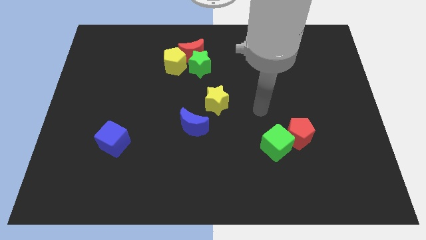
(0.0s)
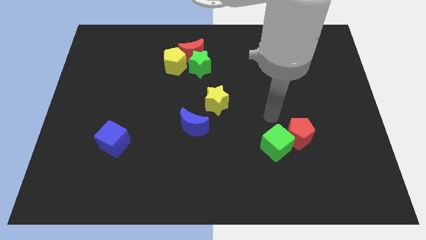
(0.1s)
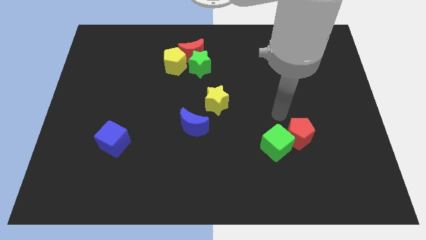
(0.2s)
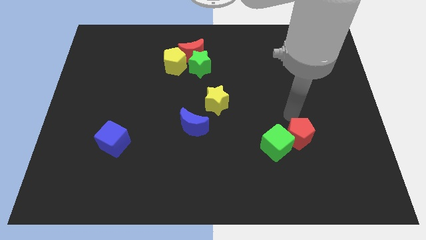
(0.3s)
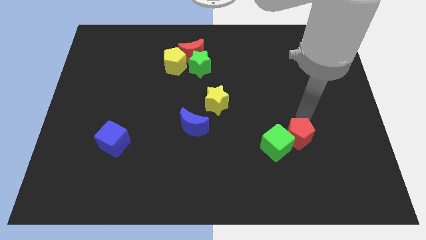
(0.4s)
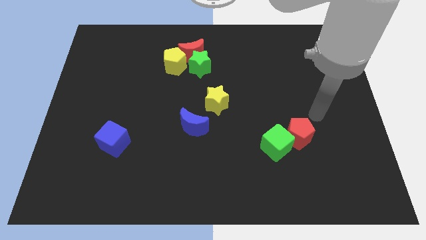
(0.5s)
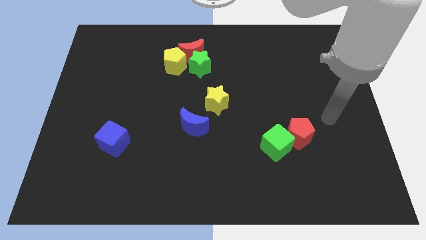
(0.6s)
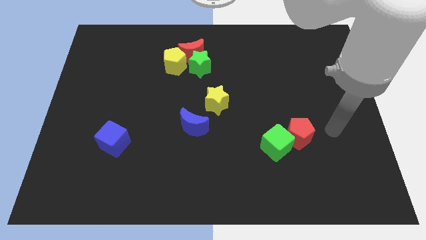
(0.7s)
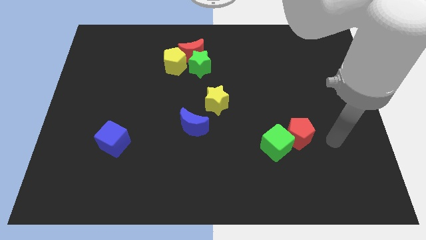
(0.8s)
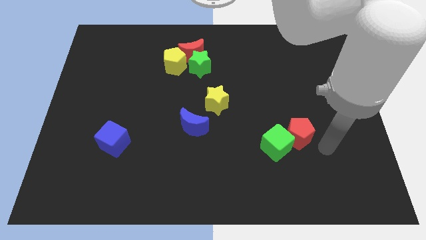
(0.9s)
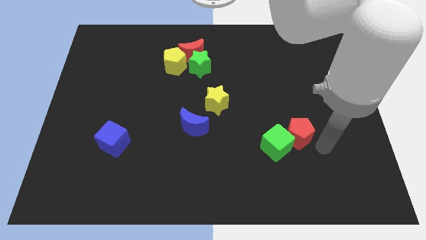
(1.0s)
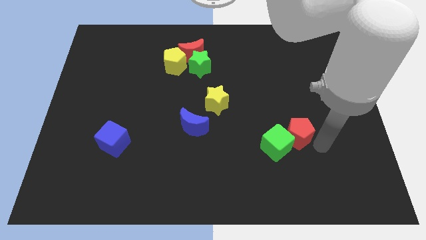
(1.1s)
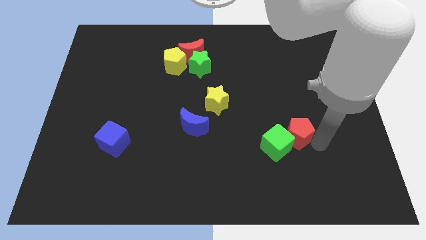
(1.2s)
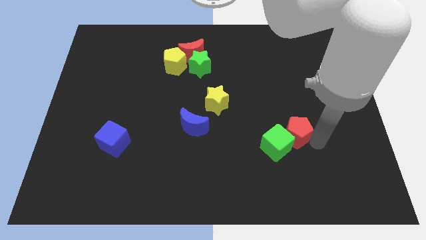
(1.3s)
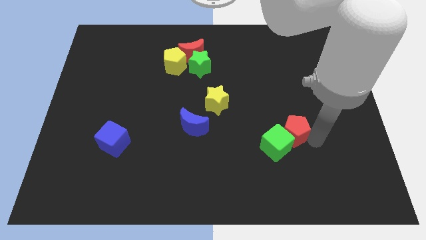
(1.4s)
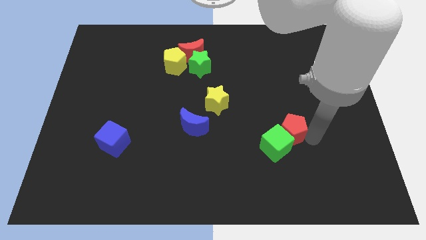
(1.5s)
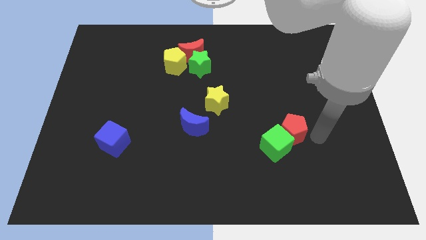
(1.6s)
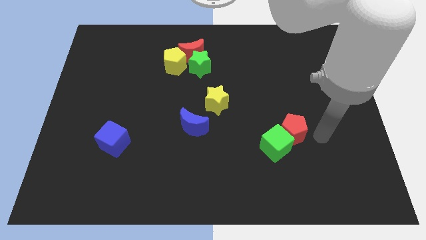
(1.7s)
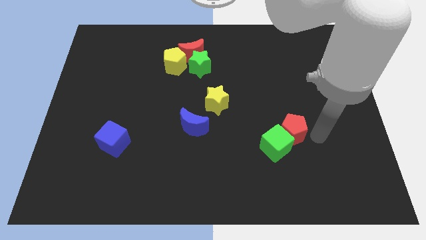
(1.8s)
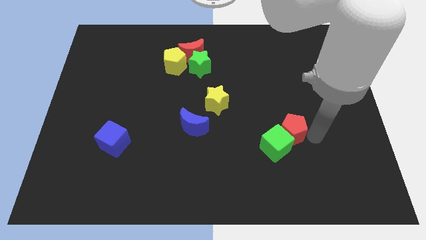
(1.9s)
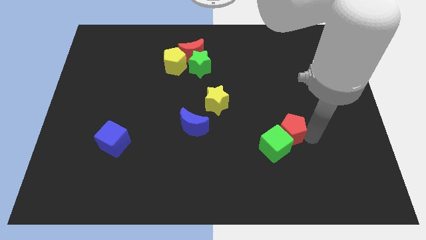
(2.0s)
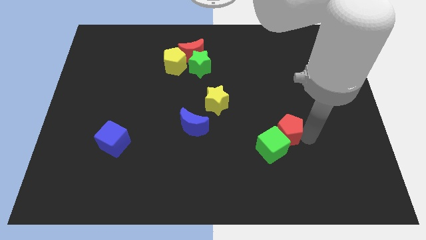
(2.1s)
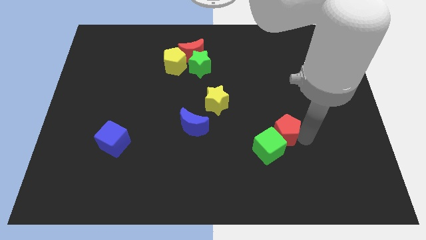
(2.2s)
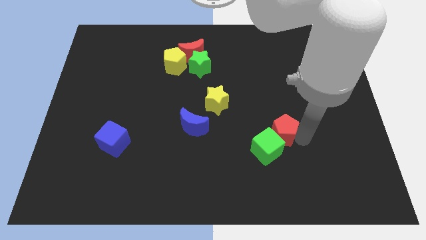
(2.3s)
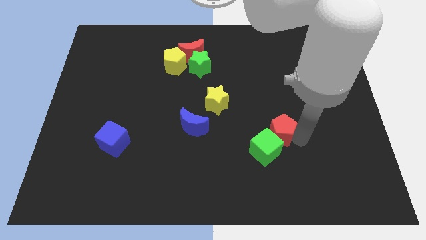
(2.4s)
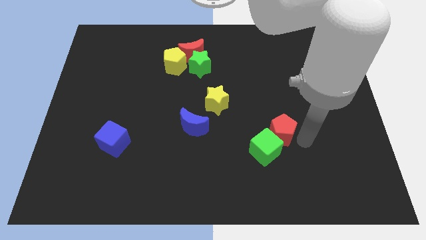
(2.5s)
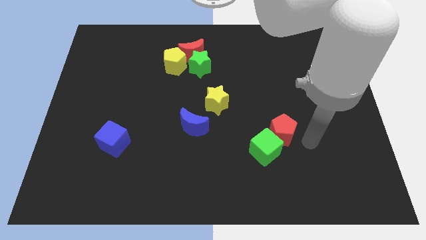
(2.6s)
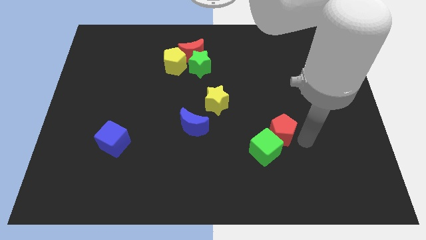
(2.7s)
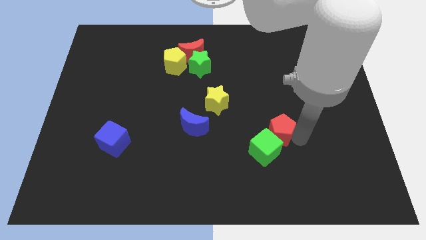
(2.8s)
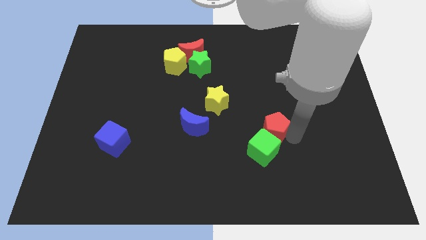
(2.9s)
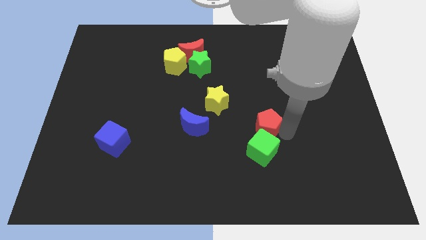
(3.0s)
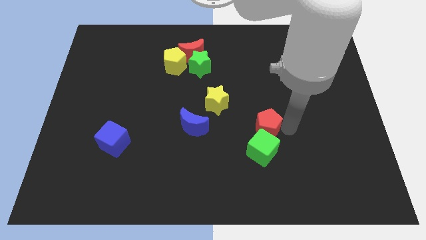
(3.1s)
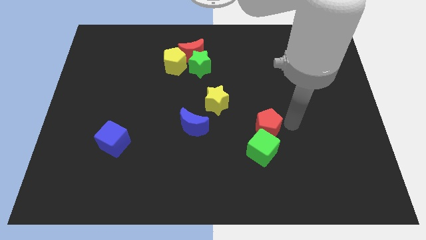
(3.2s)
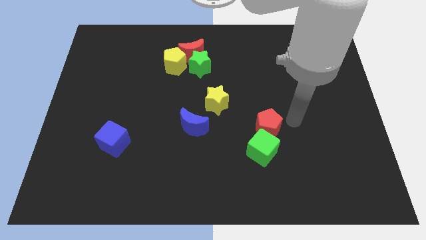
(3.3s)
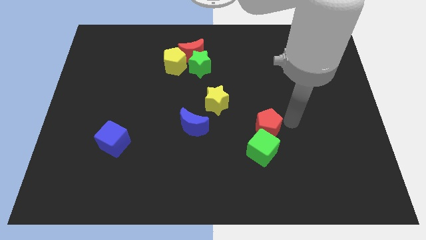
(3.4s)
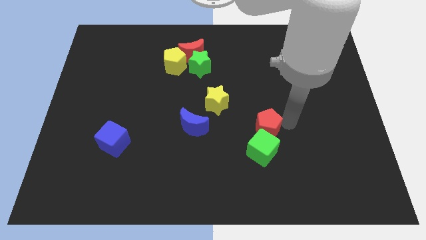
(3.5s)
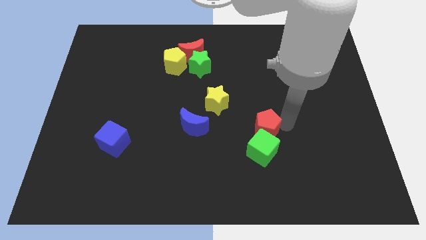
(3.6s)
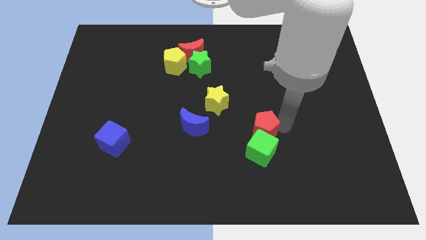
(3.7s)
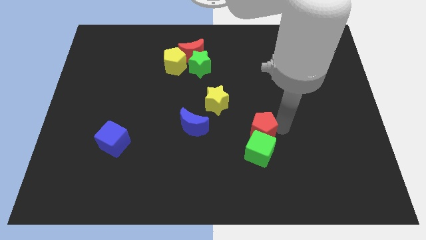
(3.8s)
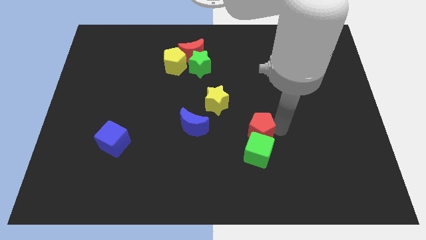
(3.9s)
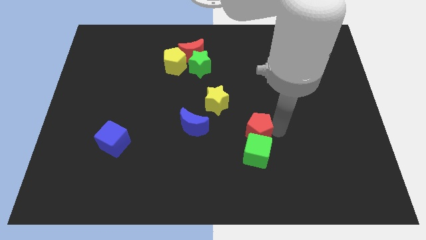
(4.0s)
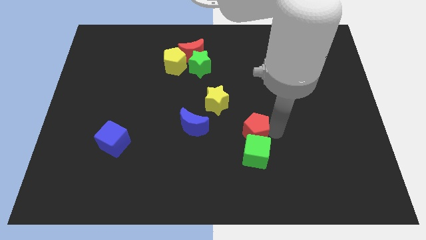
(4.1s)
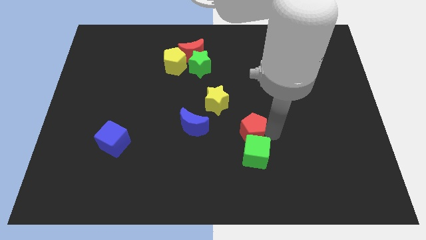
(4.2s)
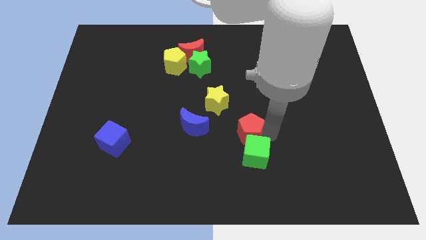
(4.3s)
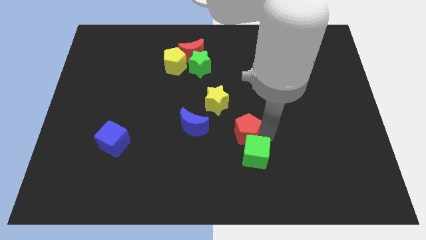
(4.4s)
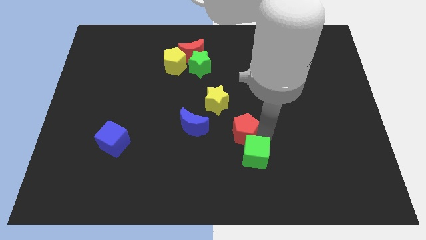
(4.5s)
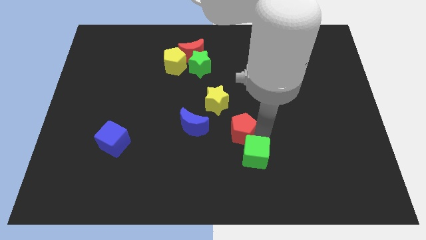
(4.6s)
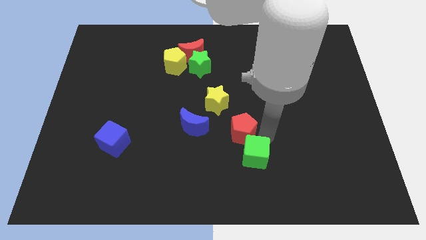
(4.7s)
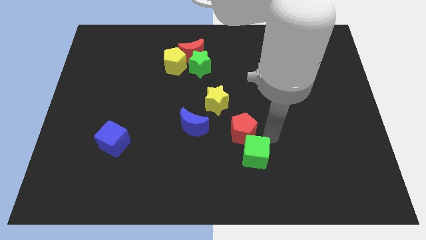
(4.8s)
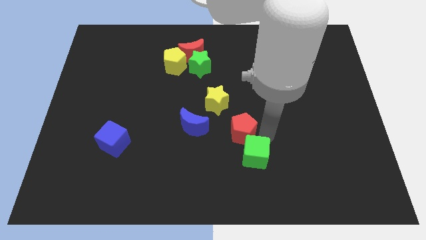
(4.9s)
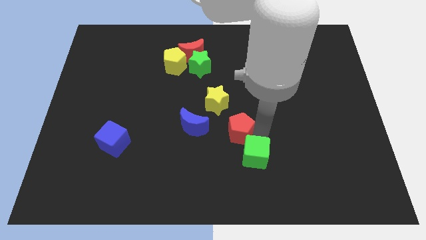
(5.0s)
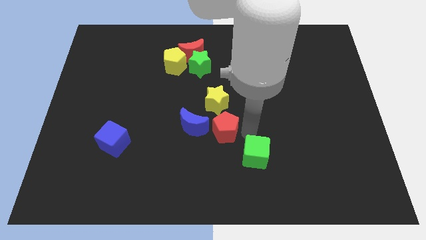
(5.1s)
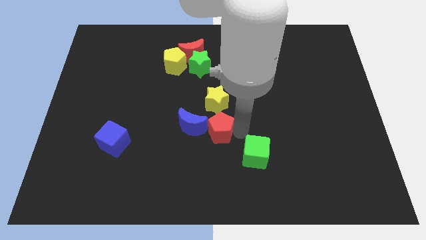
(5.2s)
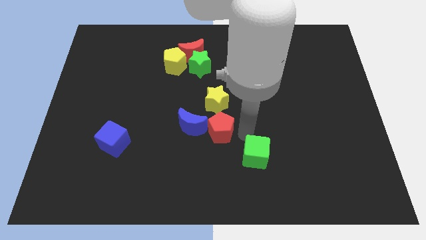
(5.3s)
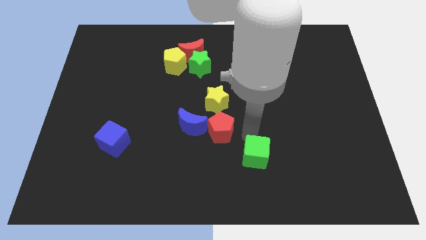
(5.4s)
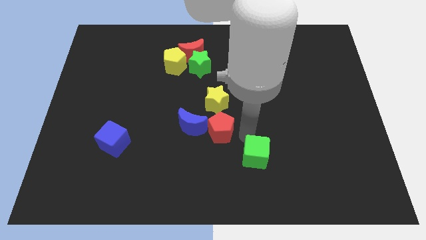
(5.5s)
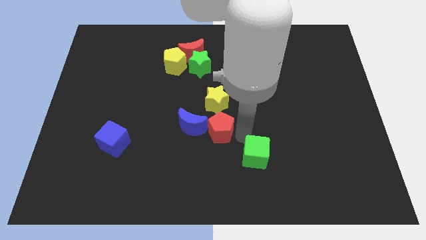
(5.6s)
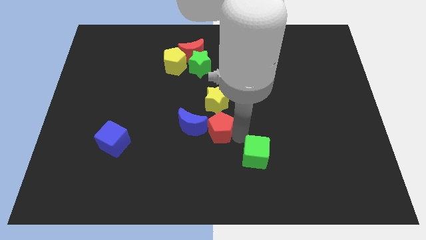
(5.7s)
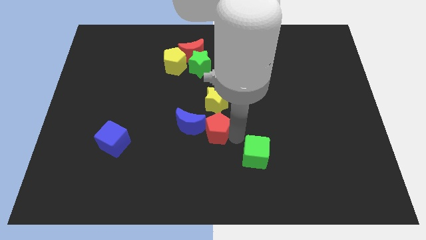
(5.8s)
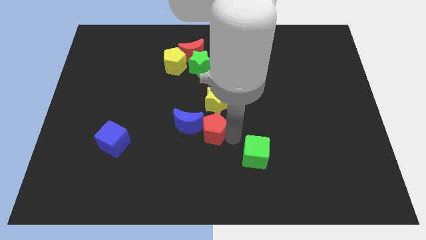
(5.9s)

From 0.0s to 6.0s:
move the red pentagon to the blue moon

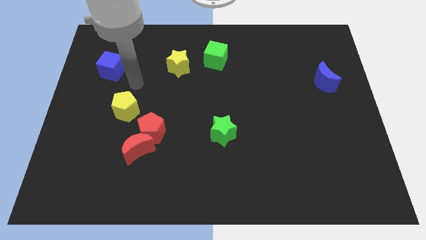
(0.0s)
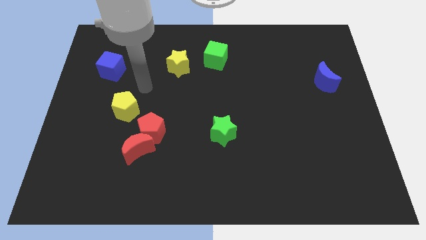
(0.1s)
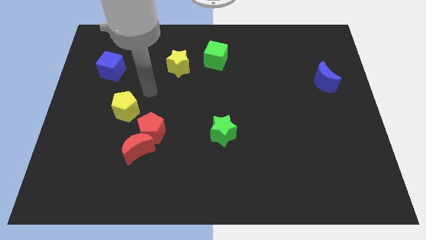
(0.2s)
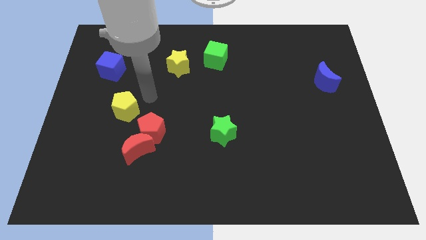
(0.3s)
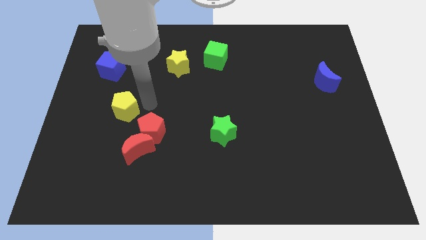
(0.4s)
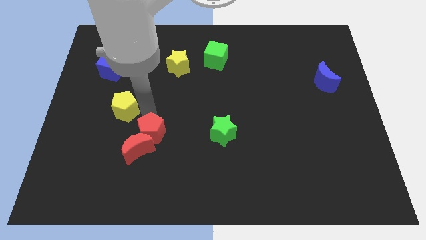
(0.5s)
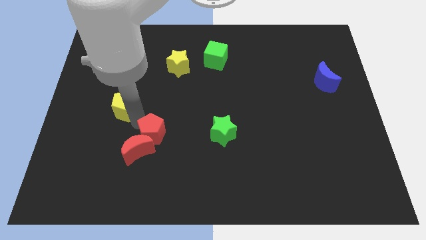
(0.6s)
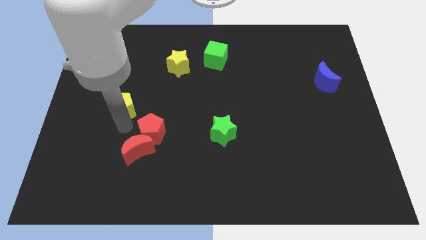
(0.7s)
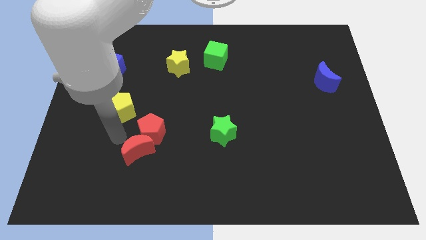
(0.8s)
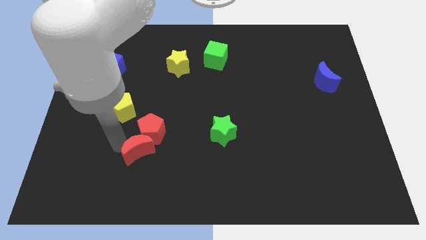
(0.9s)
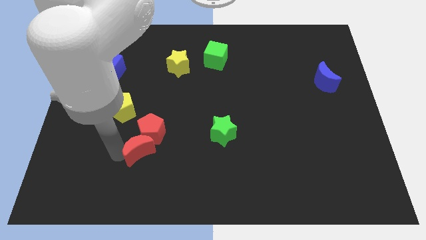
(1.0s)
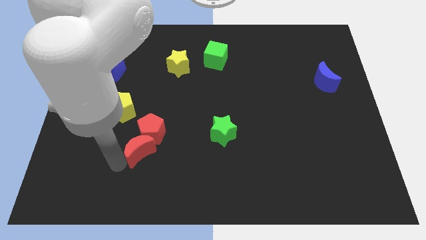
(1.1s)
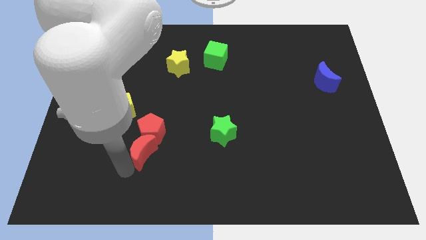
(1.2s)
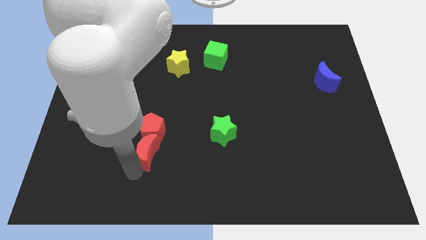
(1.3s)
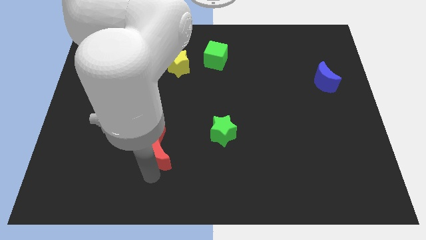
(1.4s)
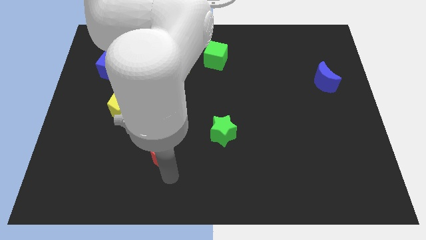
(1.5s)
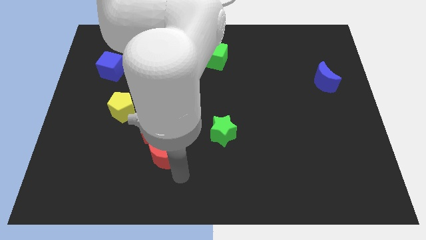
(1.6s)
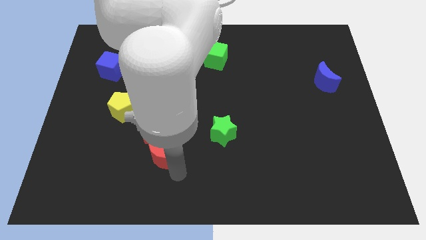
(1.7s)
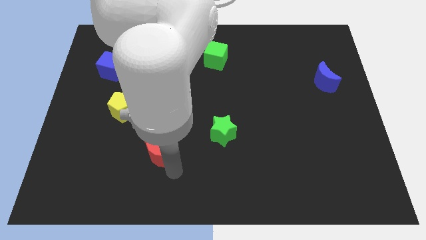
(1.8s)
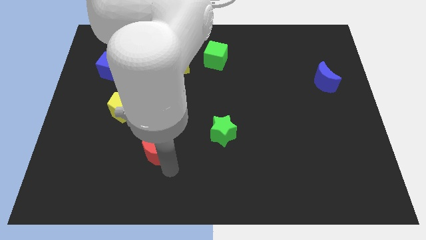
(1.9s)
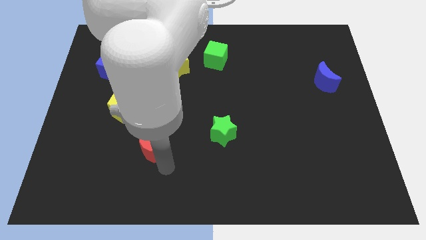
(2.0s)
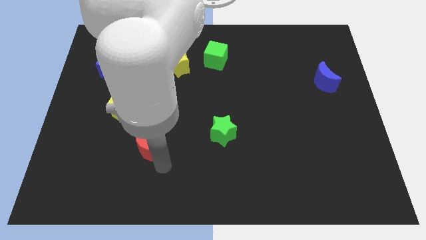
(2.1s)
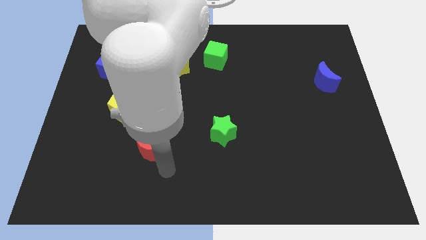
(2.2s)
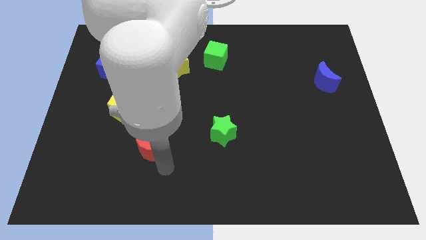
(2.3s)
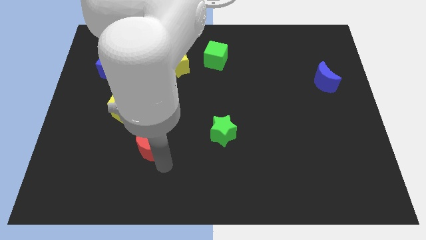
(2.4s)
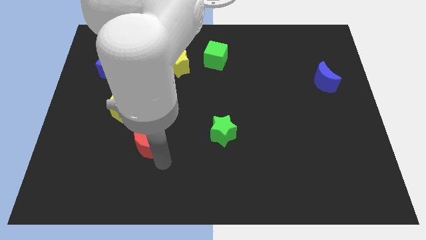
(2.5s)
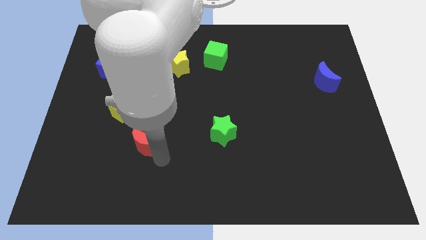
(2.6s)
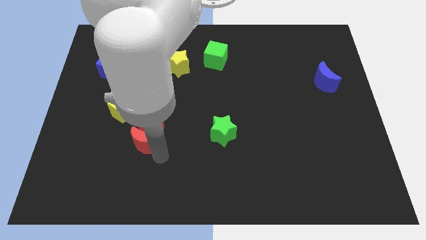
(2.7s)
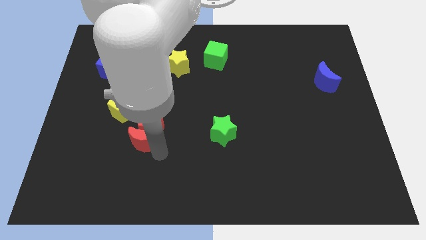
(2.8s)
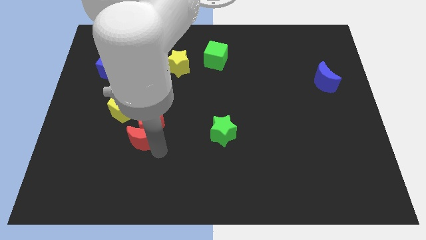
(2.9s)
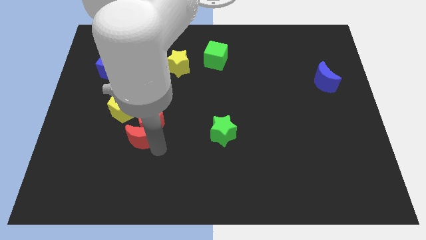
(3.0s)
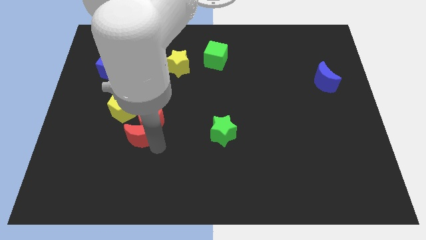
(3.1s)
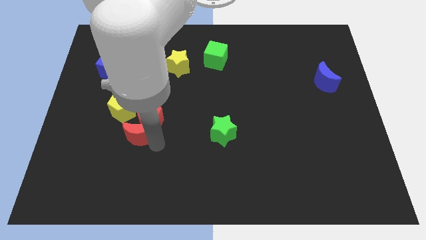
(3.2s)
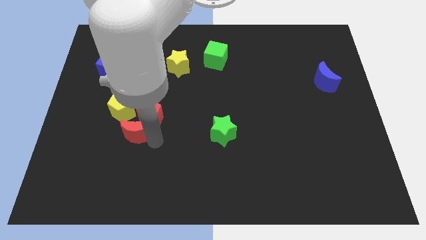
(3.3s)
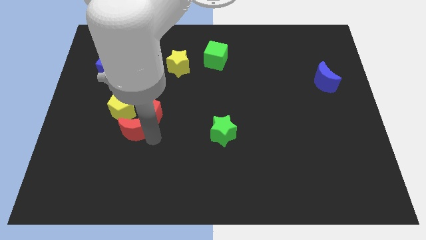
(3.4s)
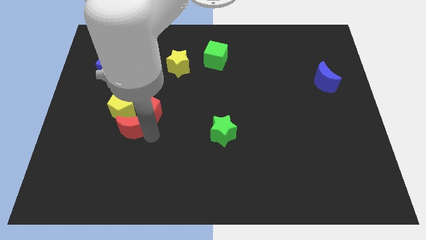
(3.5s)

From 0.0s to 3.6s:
slide the red moon towards the yellow pentagon
